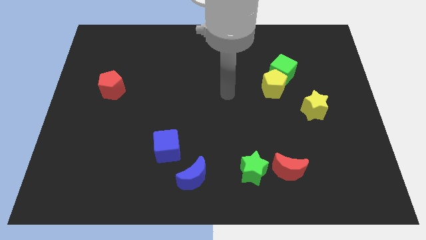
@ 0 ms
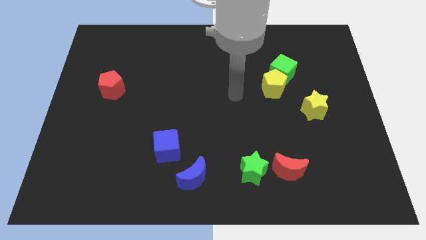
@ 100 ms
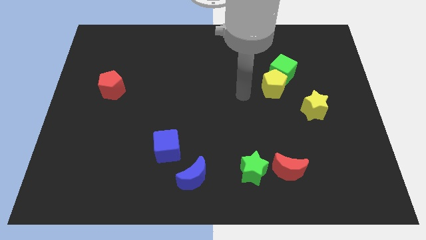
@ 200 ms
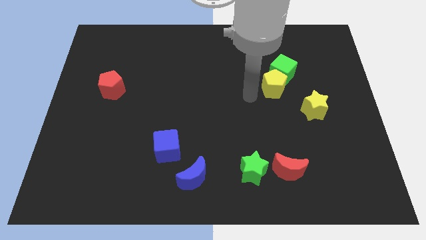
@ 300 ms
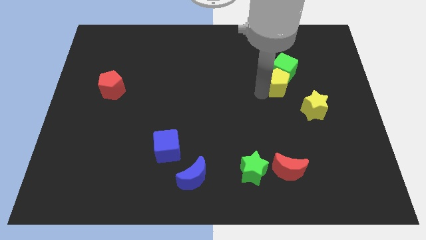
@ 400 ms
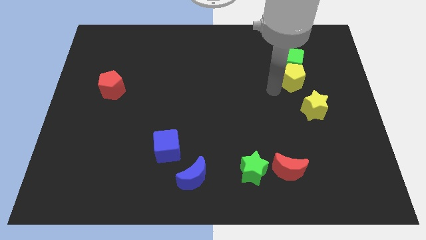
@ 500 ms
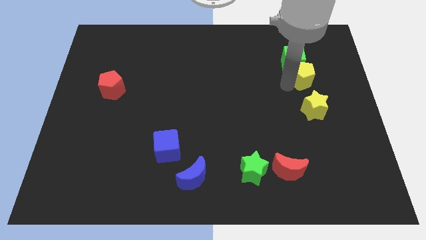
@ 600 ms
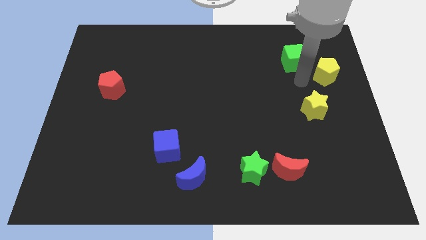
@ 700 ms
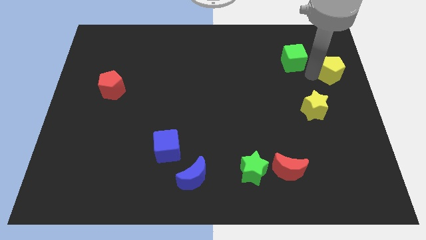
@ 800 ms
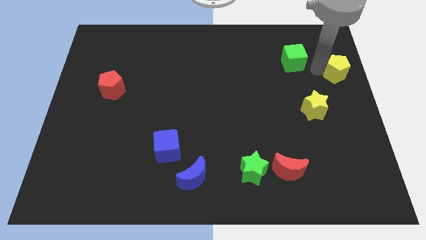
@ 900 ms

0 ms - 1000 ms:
pull the green cube apart from the yellow pentagon

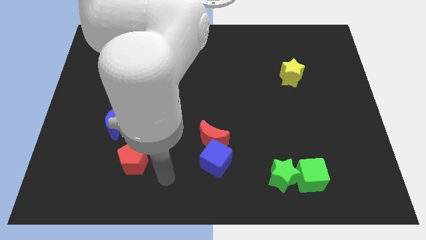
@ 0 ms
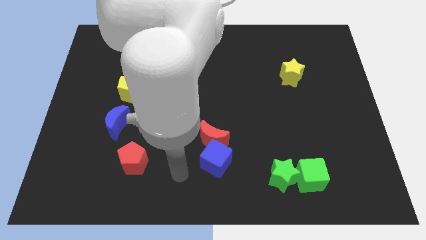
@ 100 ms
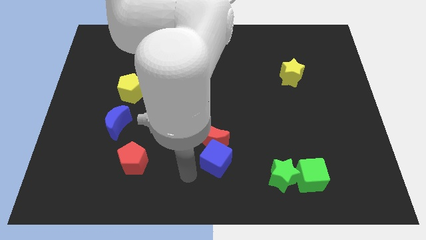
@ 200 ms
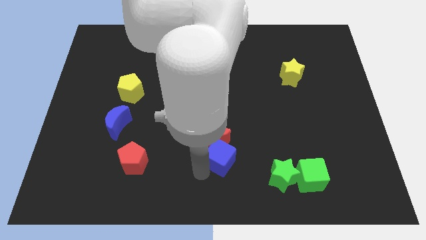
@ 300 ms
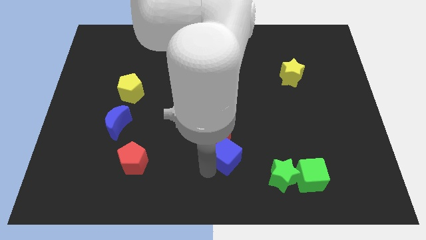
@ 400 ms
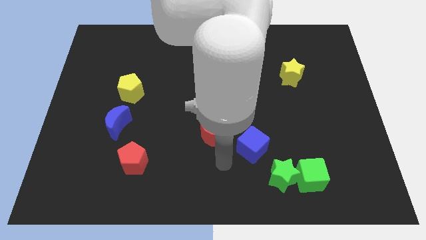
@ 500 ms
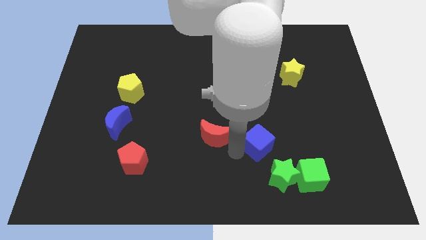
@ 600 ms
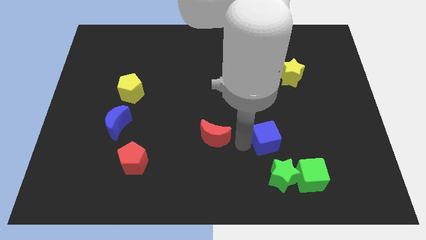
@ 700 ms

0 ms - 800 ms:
pull the red moon apart from the blue cube

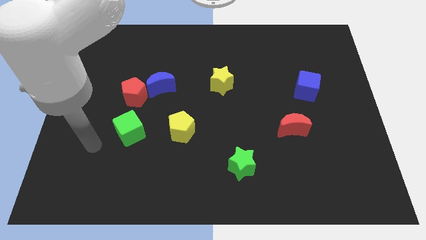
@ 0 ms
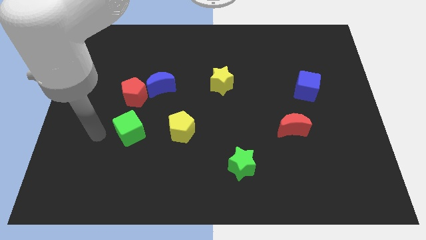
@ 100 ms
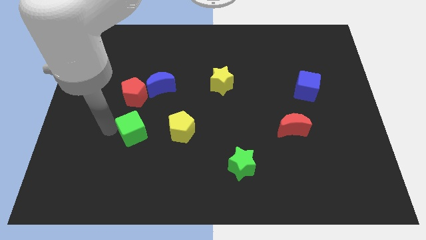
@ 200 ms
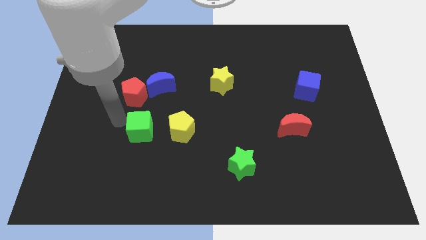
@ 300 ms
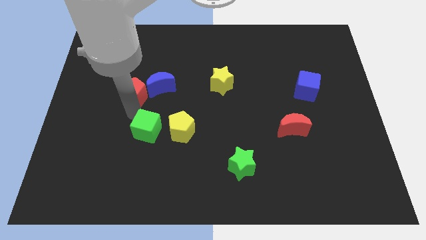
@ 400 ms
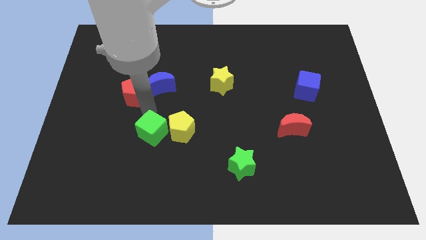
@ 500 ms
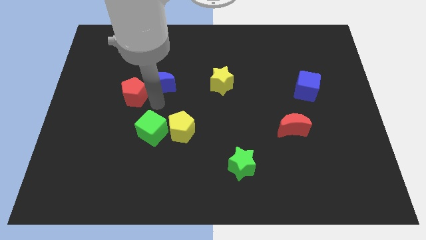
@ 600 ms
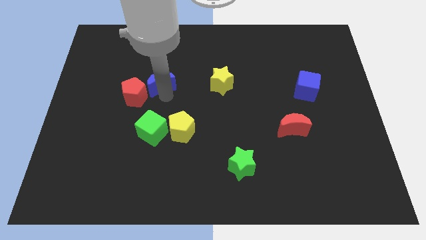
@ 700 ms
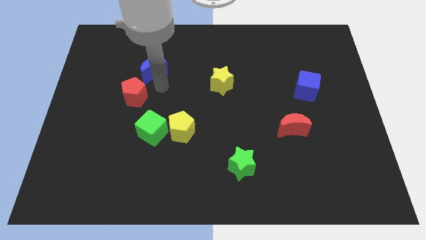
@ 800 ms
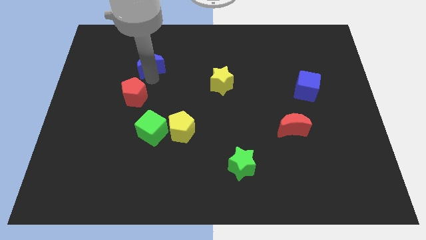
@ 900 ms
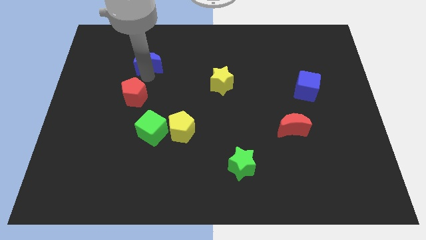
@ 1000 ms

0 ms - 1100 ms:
pull the red pentagon apart from the blue moon

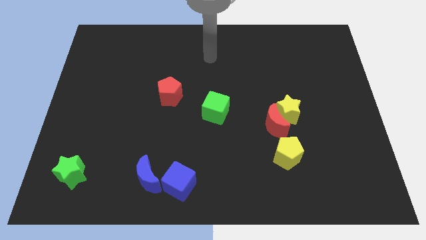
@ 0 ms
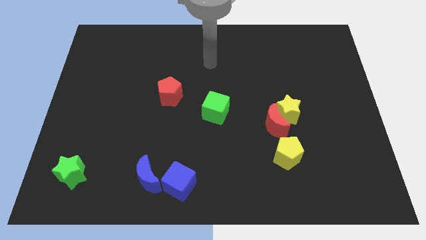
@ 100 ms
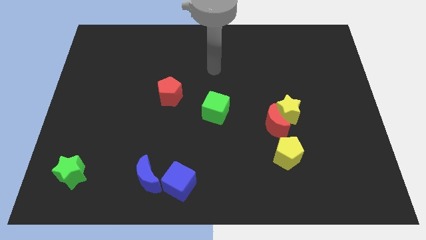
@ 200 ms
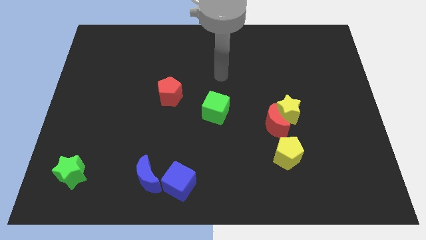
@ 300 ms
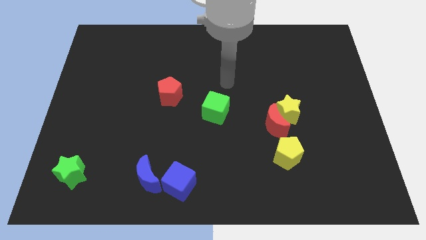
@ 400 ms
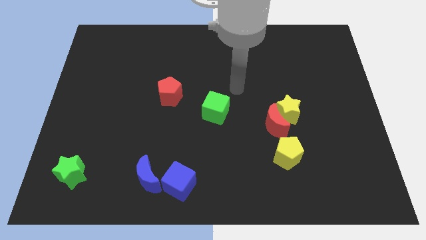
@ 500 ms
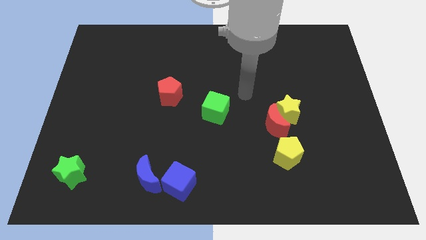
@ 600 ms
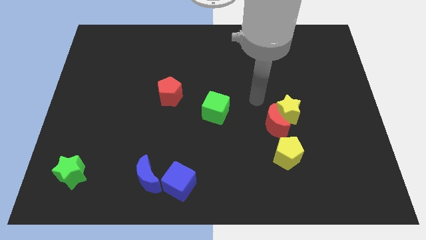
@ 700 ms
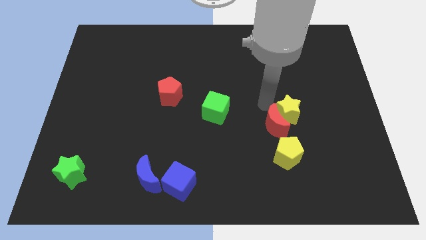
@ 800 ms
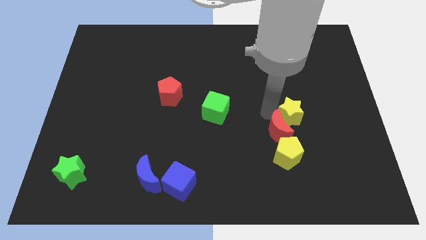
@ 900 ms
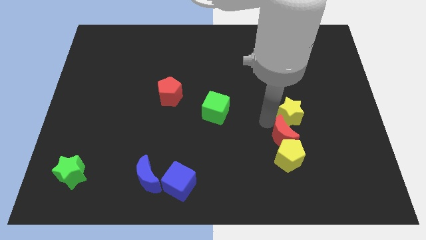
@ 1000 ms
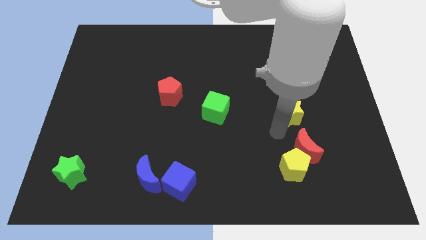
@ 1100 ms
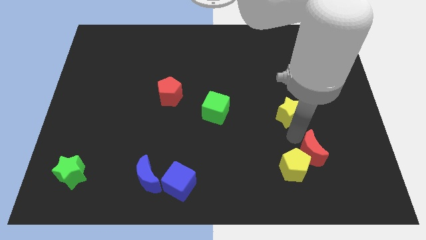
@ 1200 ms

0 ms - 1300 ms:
move the yellow star away from the red moon

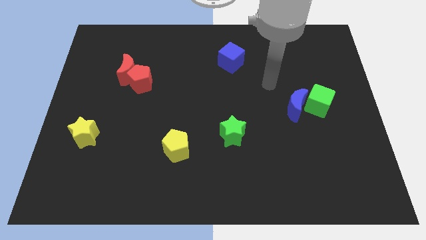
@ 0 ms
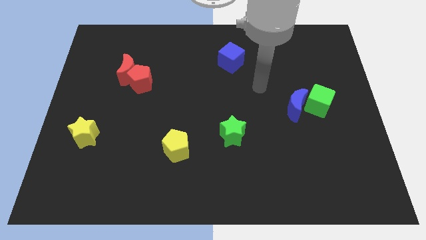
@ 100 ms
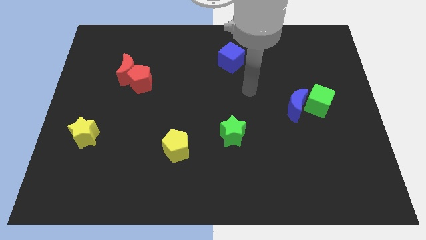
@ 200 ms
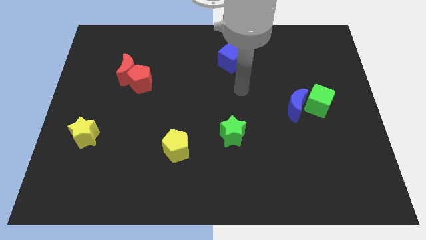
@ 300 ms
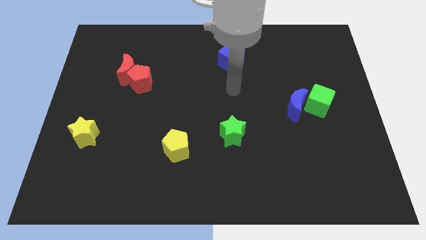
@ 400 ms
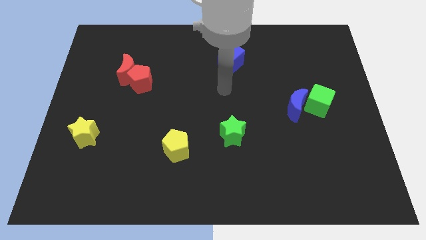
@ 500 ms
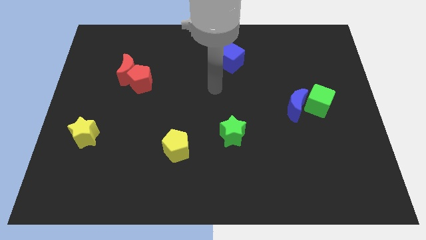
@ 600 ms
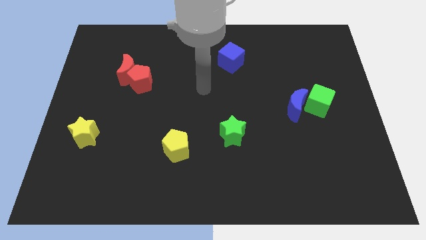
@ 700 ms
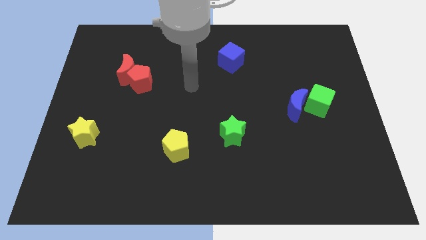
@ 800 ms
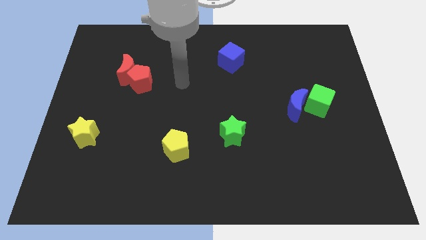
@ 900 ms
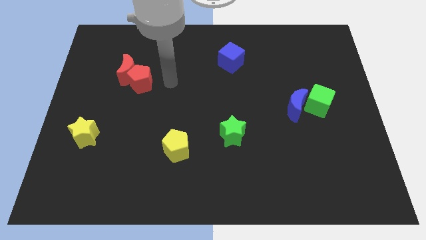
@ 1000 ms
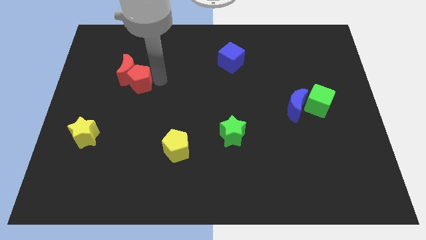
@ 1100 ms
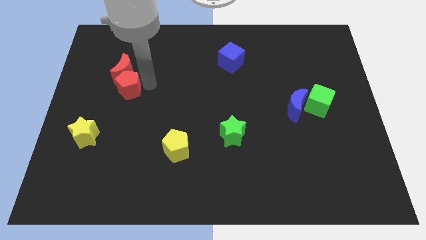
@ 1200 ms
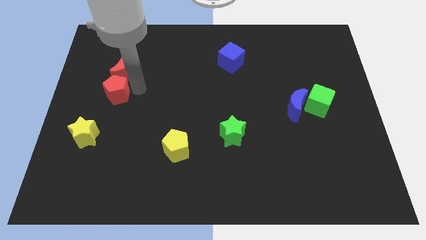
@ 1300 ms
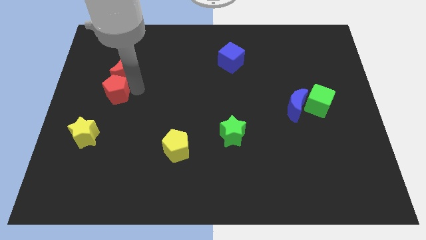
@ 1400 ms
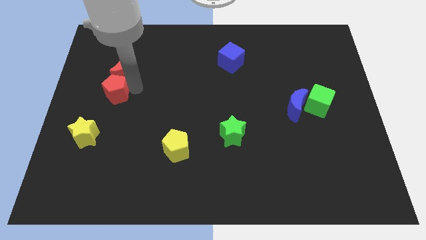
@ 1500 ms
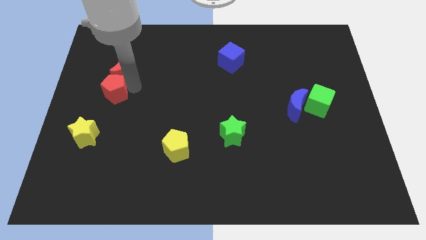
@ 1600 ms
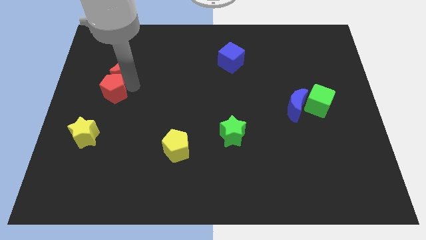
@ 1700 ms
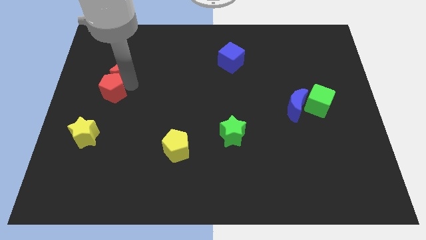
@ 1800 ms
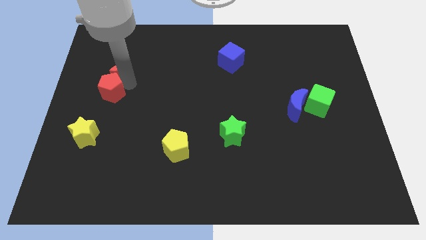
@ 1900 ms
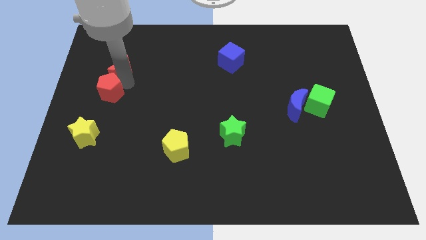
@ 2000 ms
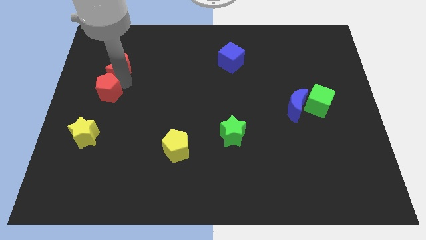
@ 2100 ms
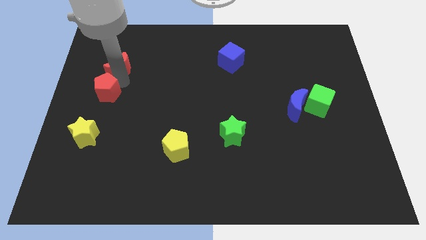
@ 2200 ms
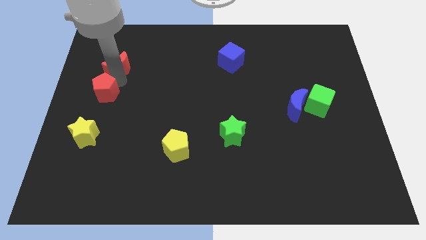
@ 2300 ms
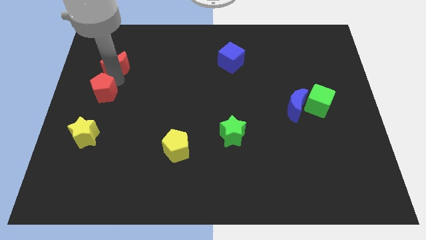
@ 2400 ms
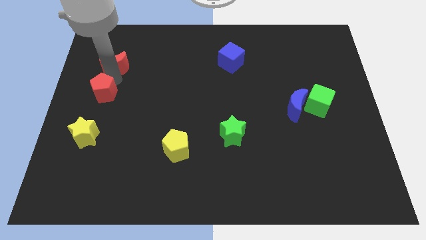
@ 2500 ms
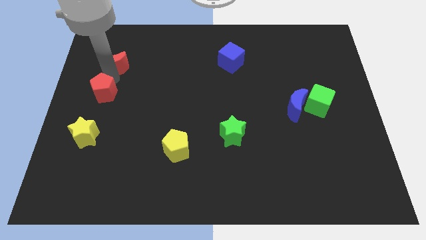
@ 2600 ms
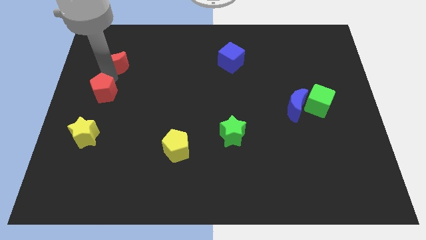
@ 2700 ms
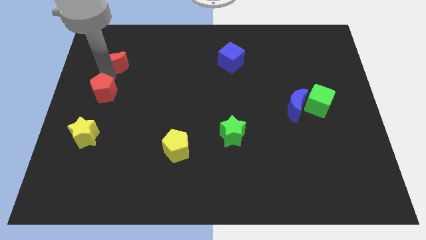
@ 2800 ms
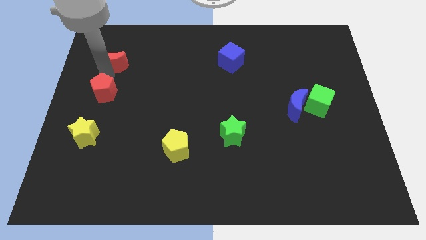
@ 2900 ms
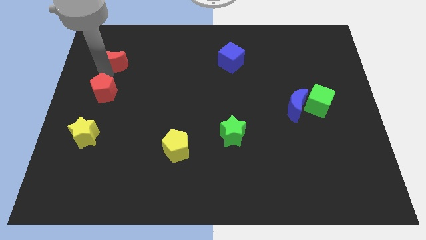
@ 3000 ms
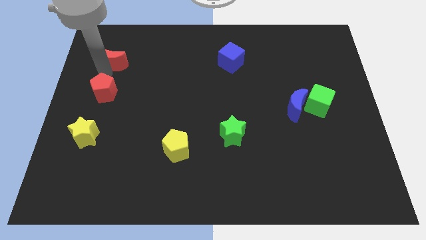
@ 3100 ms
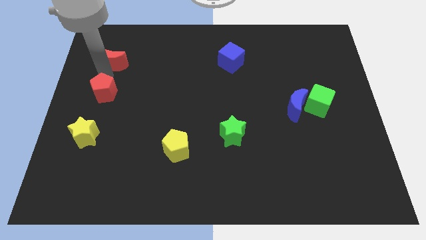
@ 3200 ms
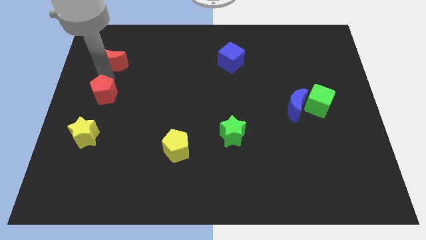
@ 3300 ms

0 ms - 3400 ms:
move the red moon away from the red pentagon

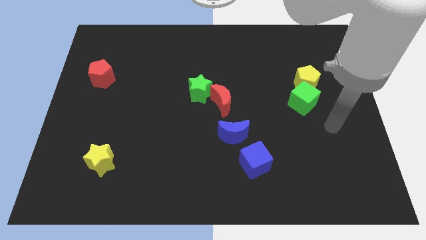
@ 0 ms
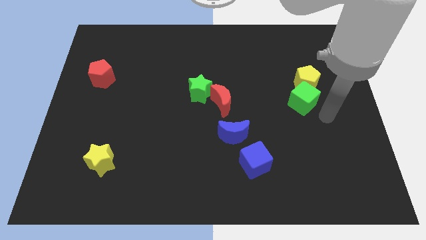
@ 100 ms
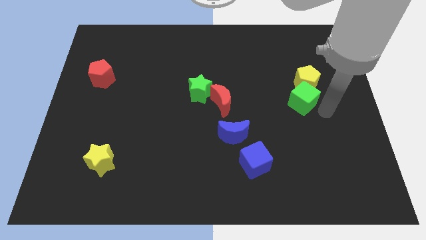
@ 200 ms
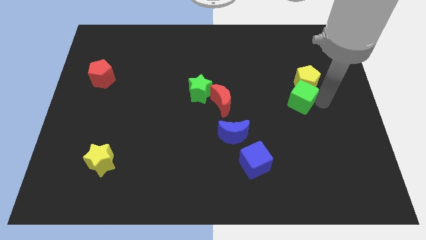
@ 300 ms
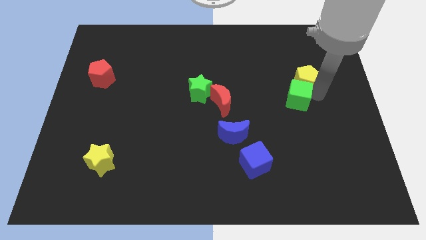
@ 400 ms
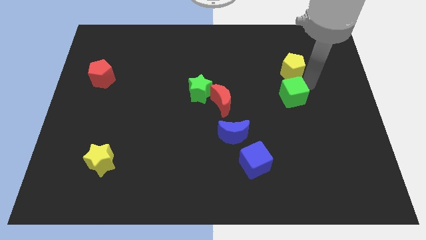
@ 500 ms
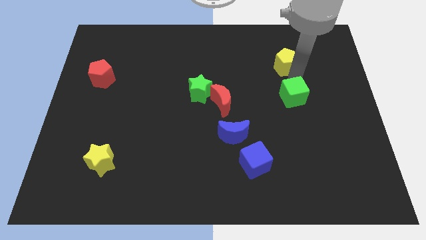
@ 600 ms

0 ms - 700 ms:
separate the green cube from the yellow pentagon

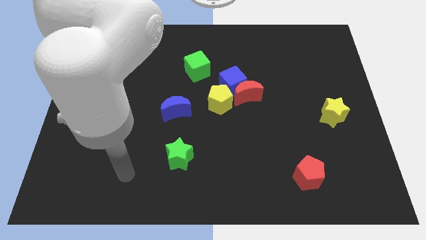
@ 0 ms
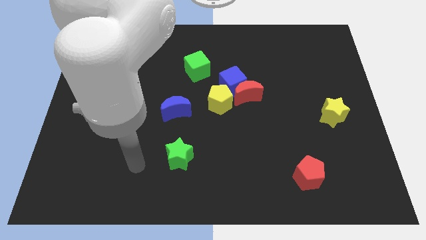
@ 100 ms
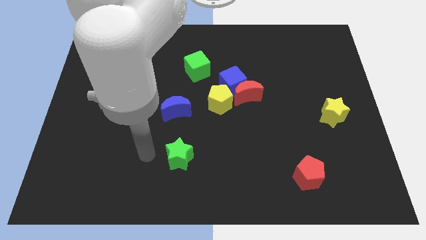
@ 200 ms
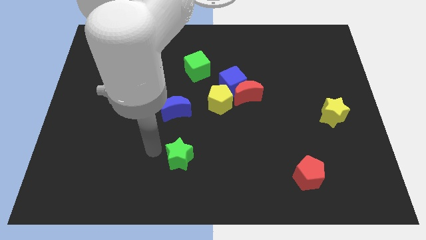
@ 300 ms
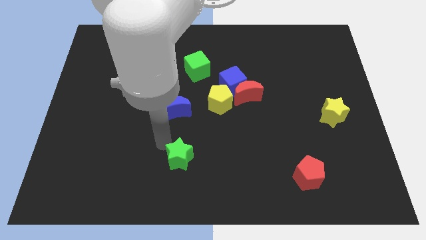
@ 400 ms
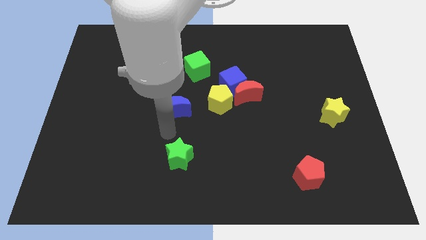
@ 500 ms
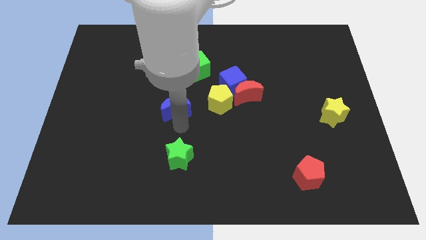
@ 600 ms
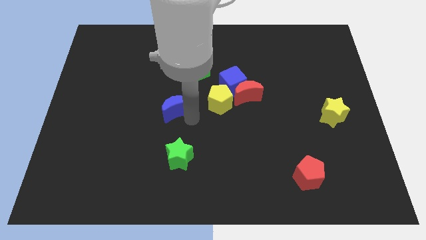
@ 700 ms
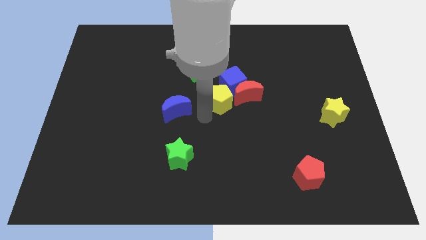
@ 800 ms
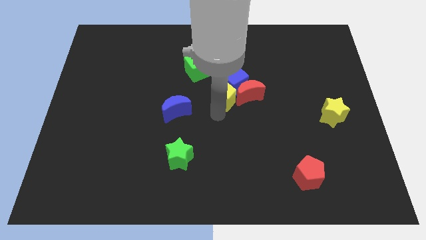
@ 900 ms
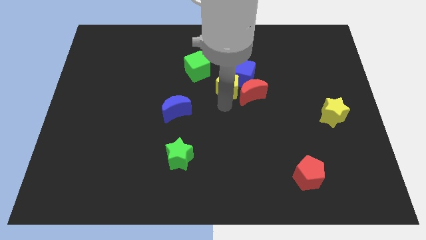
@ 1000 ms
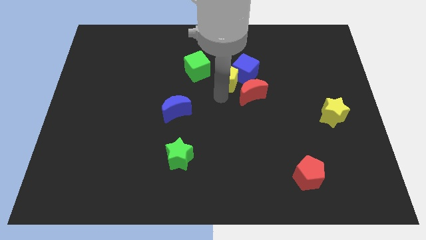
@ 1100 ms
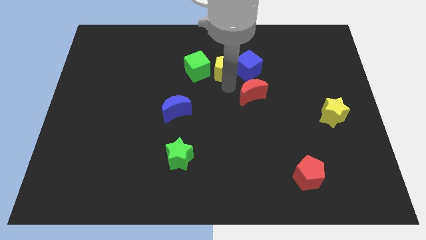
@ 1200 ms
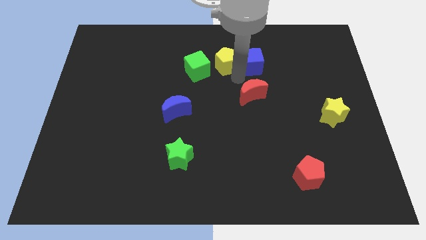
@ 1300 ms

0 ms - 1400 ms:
move the red moon away from the blue cube and yellow pentagon
